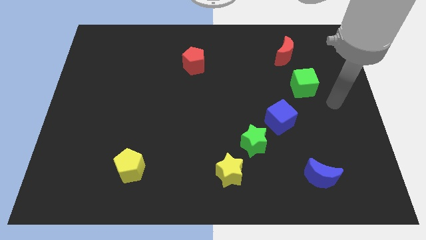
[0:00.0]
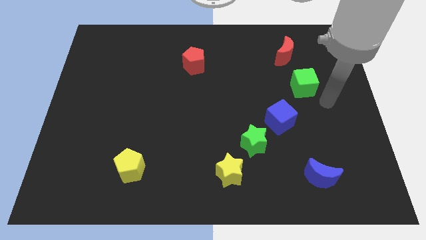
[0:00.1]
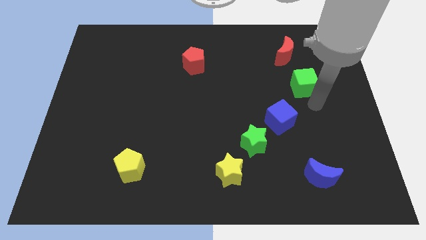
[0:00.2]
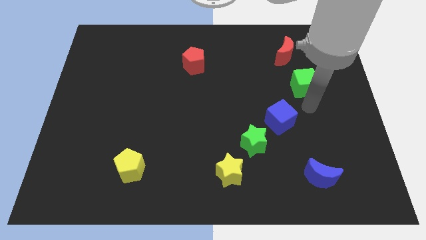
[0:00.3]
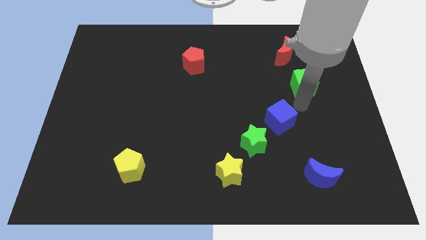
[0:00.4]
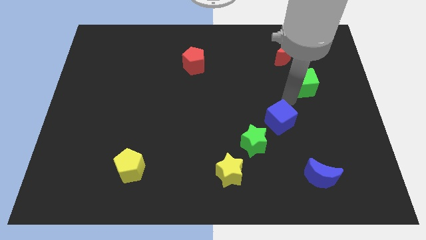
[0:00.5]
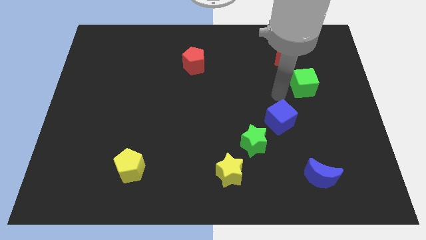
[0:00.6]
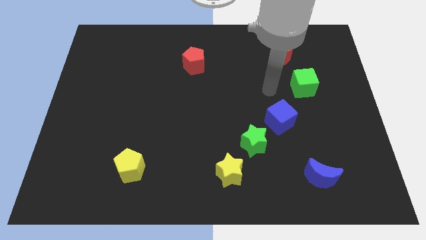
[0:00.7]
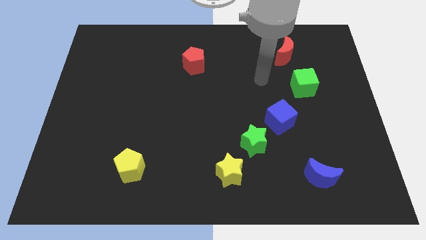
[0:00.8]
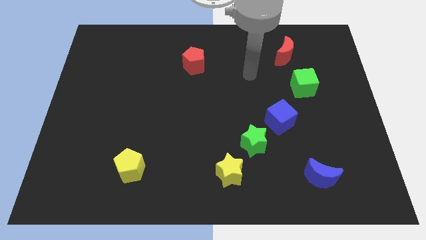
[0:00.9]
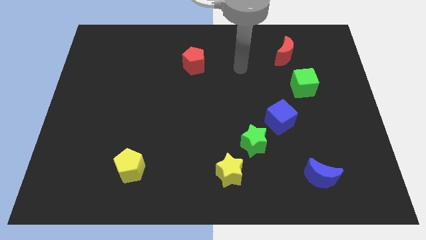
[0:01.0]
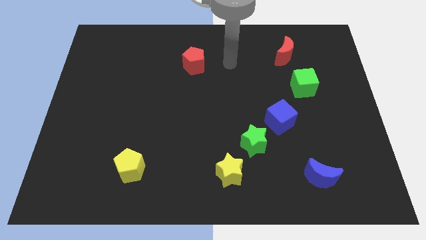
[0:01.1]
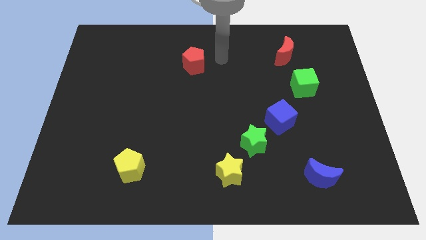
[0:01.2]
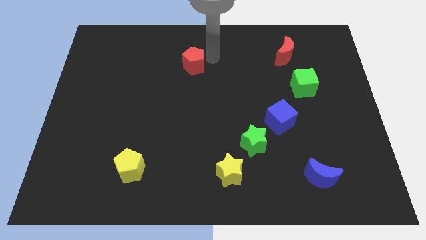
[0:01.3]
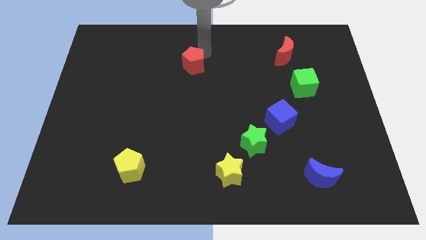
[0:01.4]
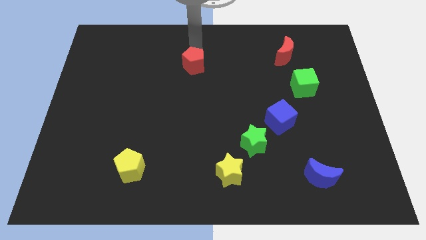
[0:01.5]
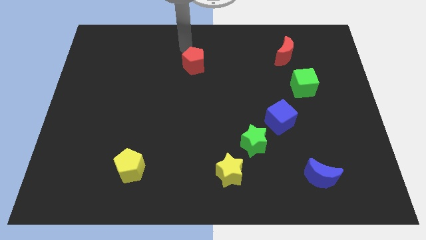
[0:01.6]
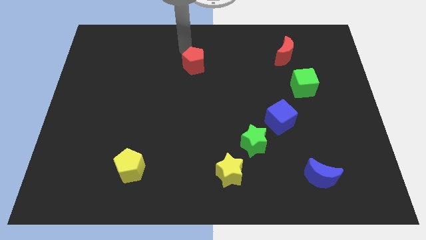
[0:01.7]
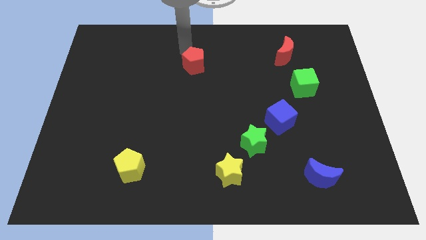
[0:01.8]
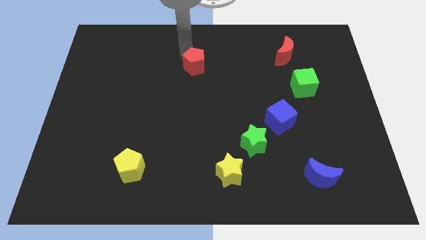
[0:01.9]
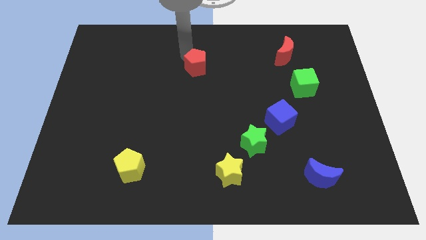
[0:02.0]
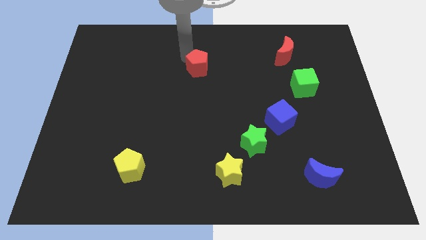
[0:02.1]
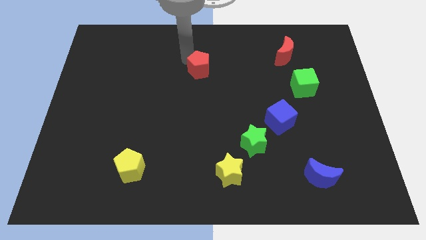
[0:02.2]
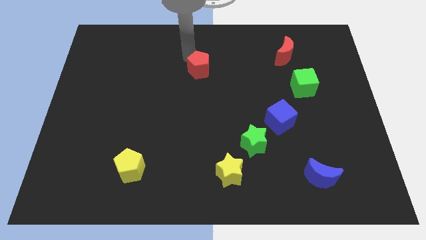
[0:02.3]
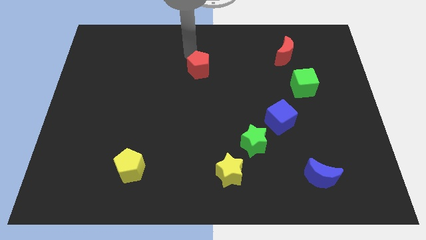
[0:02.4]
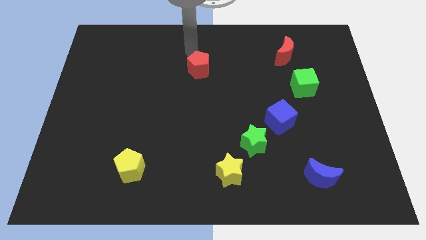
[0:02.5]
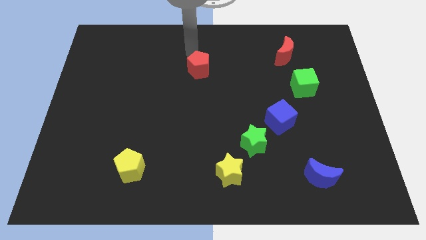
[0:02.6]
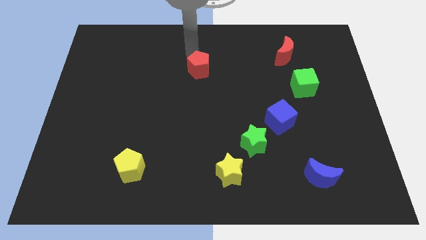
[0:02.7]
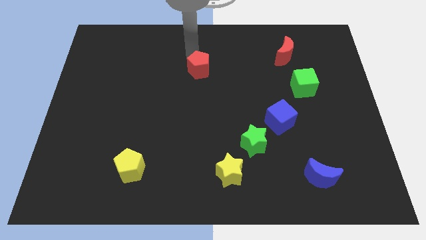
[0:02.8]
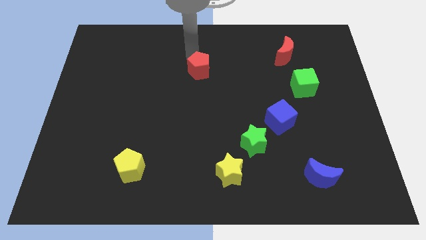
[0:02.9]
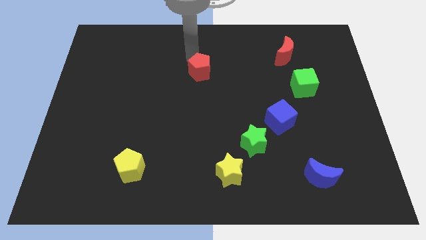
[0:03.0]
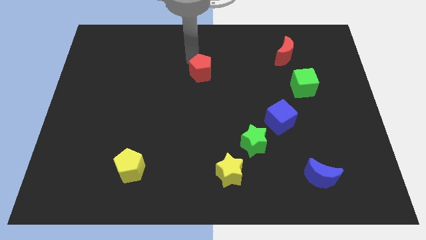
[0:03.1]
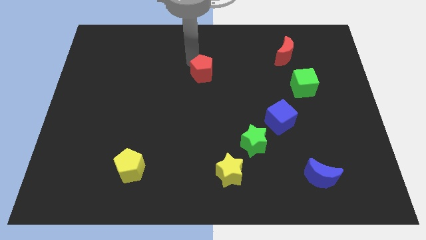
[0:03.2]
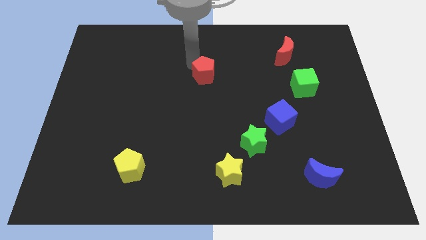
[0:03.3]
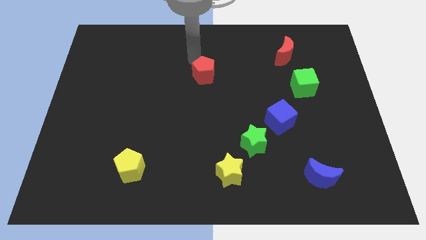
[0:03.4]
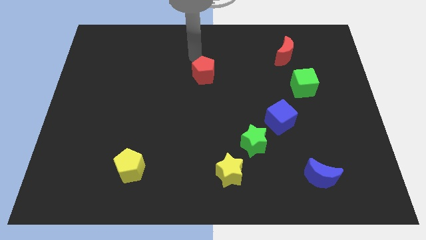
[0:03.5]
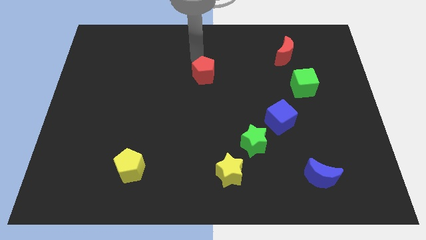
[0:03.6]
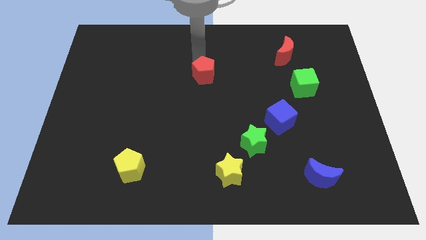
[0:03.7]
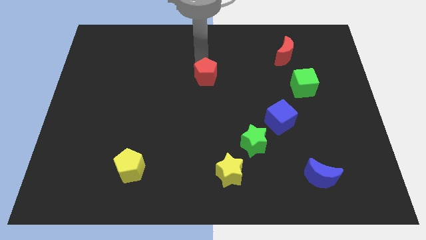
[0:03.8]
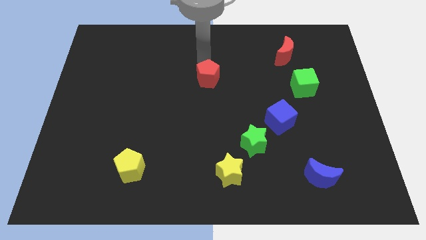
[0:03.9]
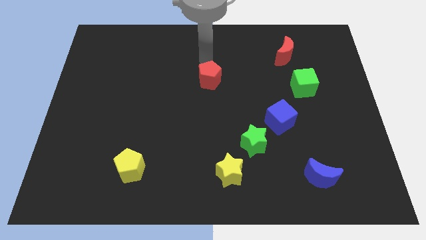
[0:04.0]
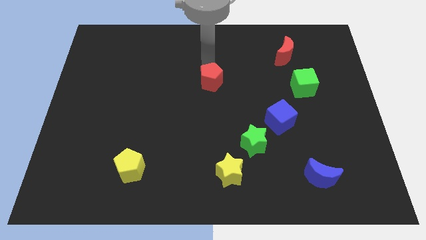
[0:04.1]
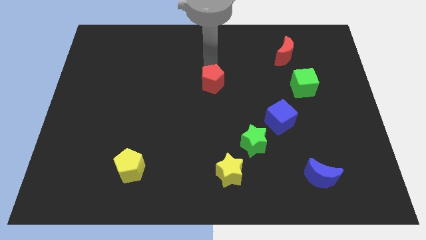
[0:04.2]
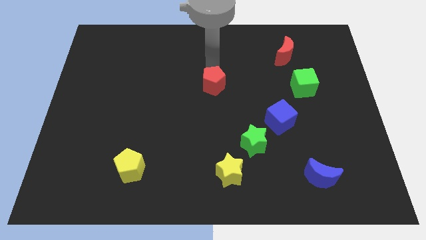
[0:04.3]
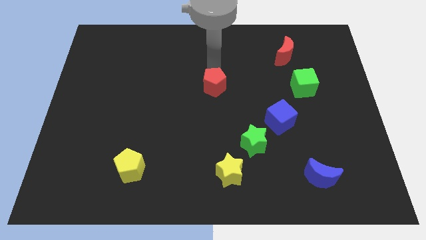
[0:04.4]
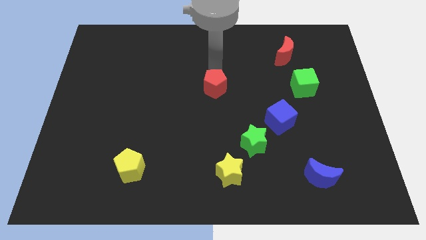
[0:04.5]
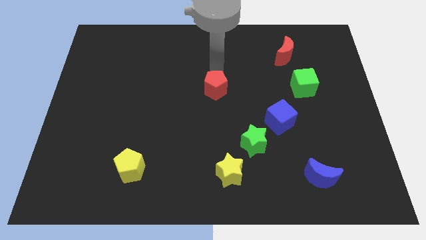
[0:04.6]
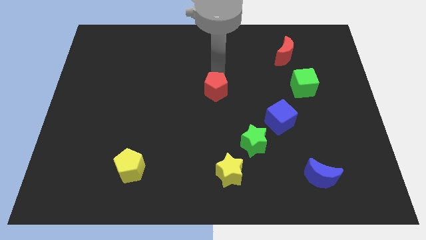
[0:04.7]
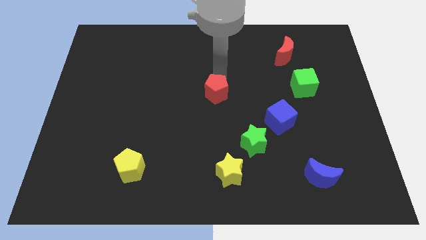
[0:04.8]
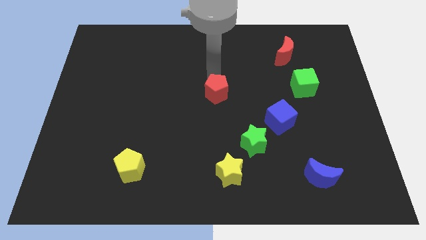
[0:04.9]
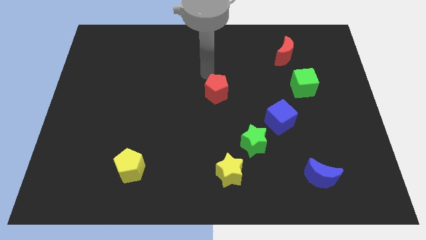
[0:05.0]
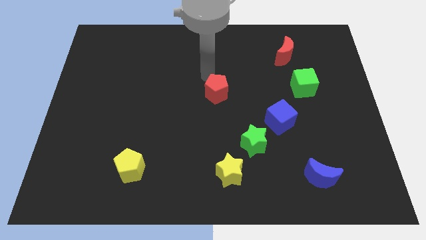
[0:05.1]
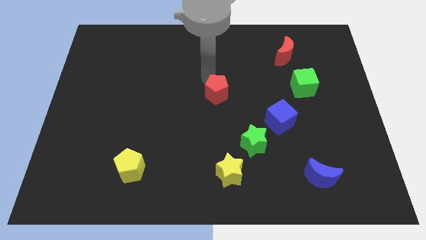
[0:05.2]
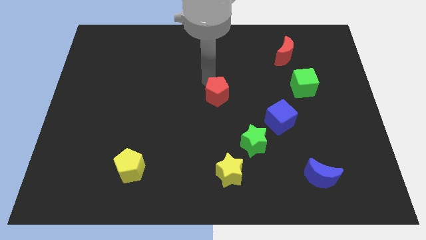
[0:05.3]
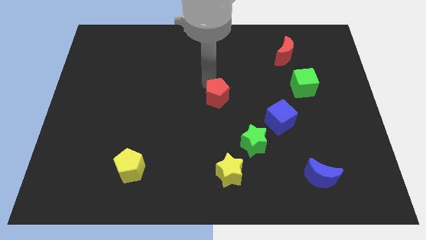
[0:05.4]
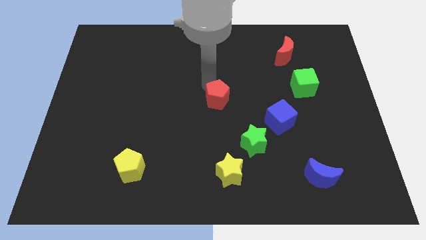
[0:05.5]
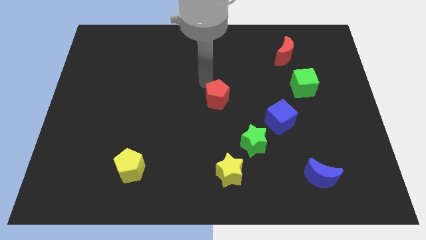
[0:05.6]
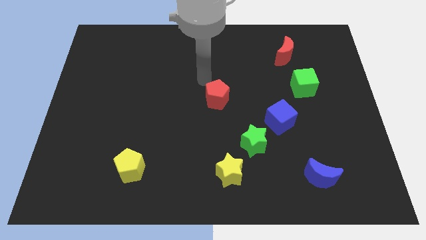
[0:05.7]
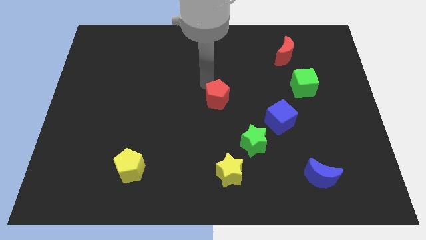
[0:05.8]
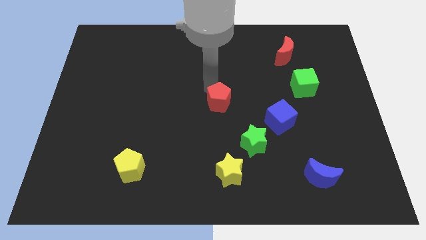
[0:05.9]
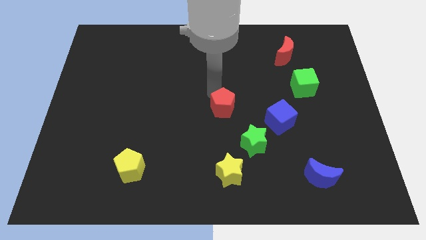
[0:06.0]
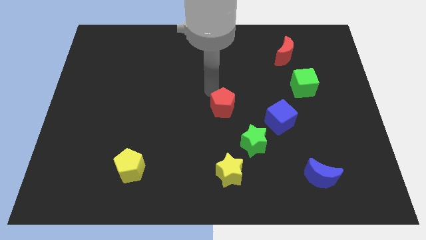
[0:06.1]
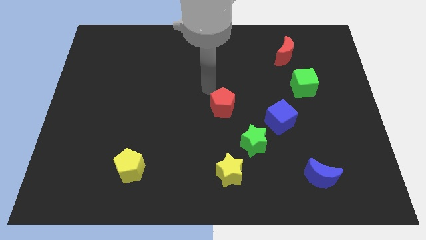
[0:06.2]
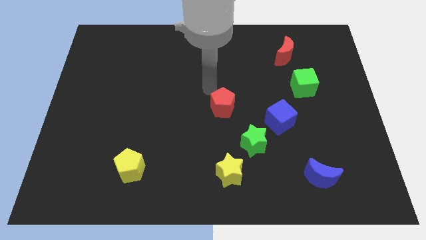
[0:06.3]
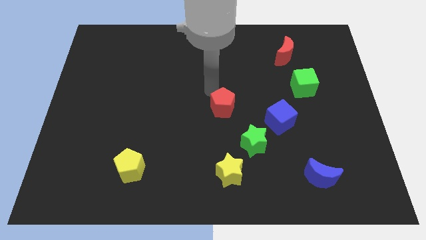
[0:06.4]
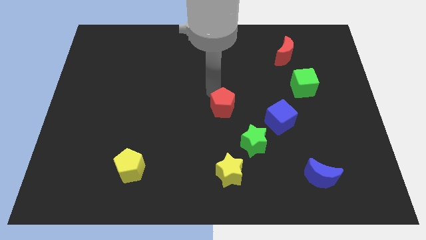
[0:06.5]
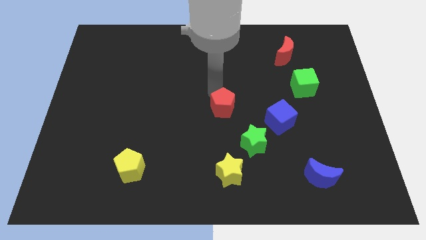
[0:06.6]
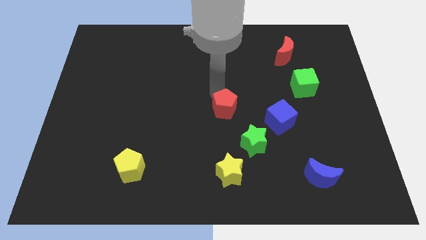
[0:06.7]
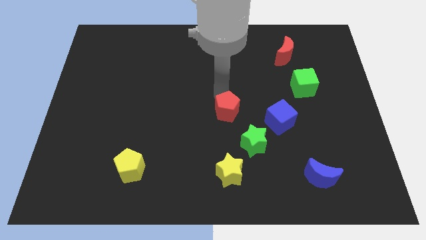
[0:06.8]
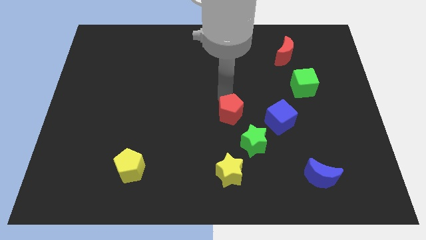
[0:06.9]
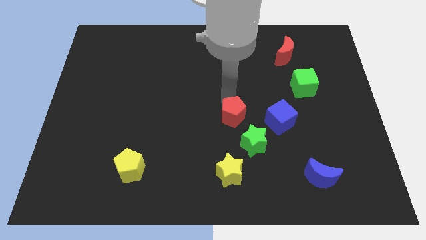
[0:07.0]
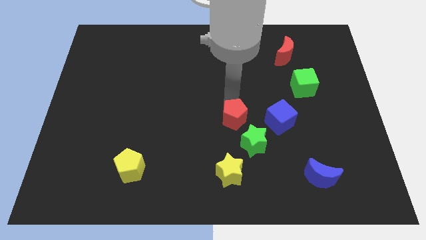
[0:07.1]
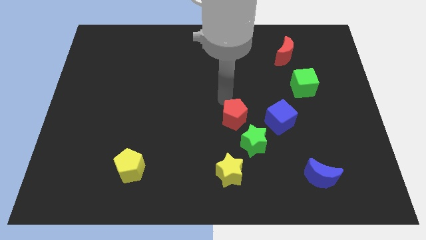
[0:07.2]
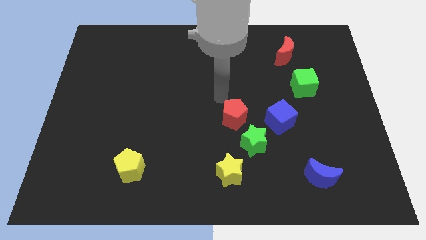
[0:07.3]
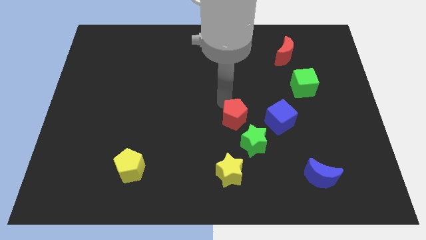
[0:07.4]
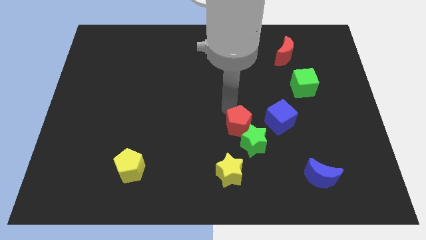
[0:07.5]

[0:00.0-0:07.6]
push the red pentagon towards the green star
